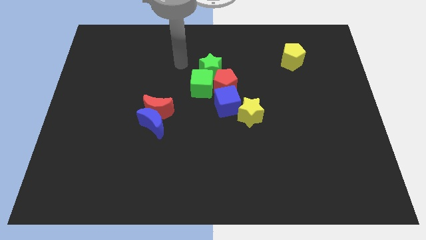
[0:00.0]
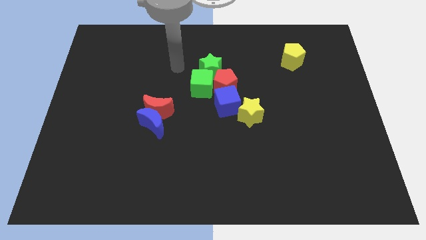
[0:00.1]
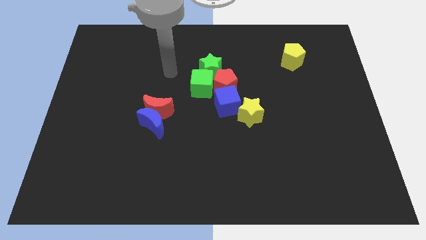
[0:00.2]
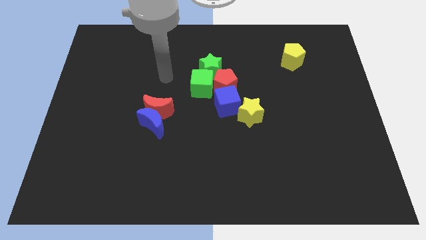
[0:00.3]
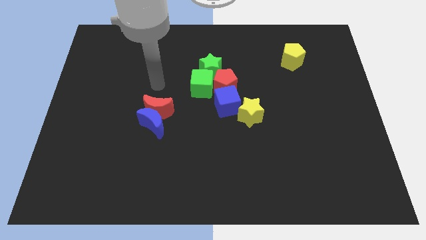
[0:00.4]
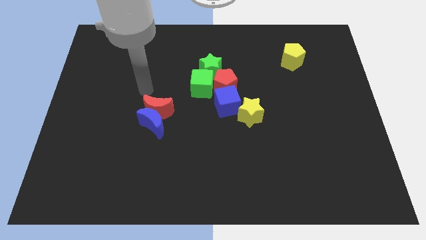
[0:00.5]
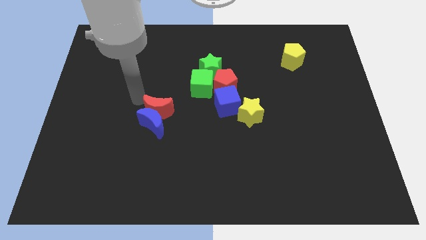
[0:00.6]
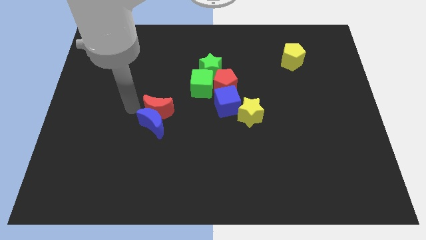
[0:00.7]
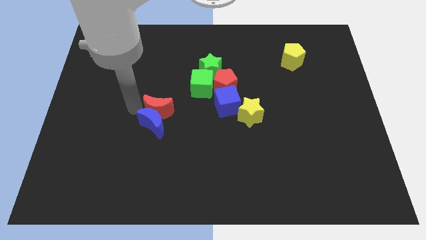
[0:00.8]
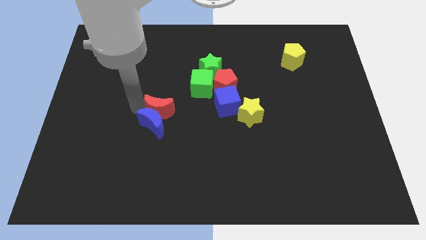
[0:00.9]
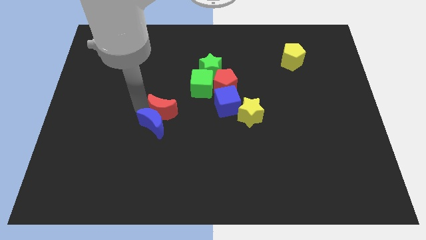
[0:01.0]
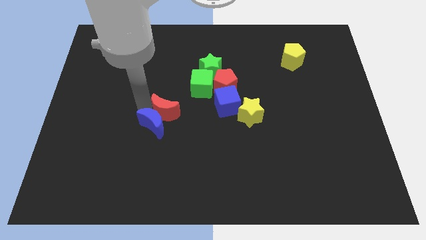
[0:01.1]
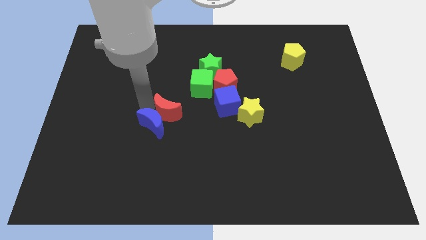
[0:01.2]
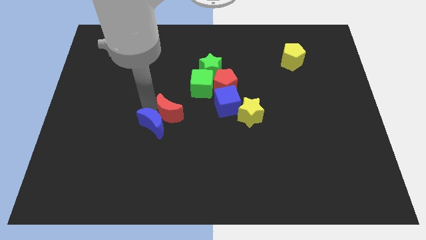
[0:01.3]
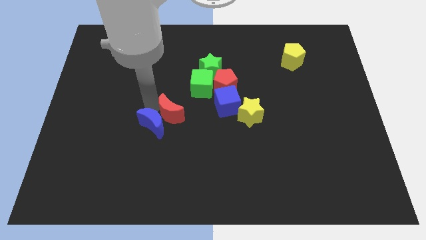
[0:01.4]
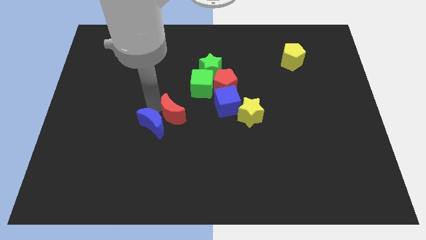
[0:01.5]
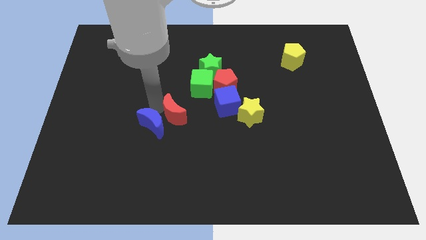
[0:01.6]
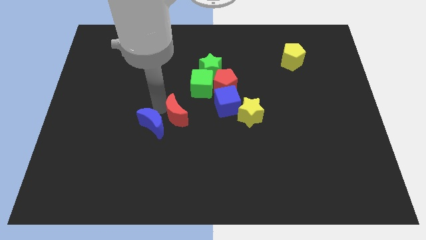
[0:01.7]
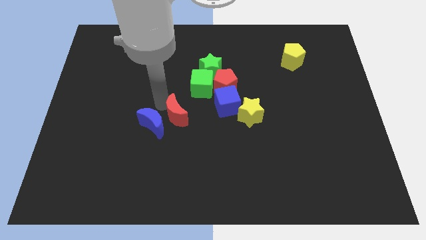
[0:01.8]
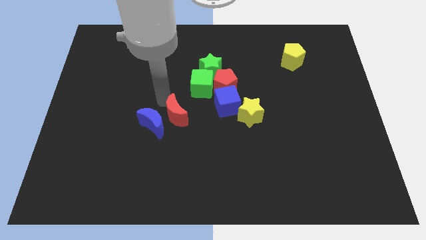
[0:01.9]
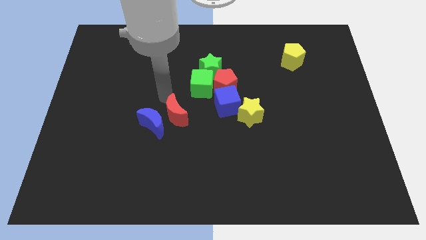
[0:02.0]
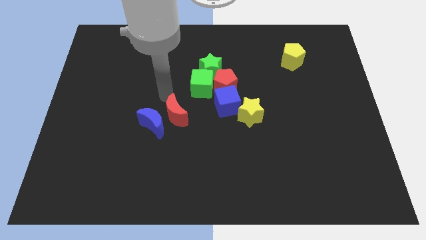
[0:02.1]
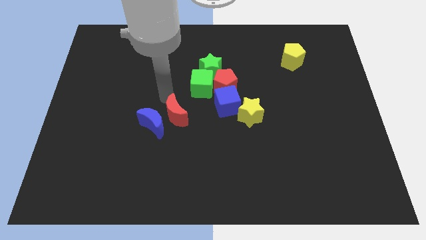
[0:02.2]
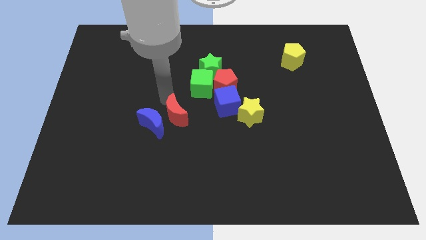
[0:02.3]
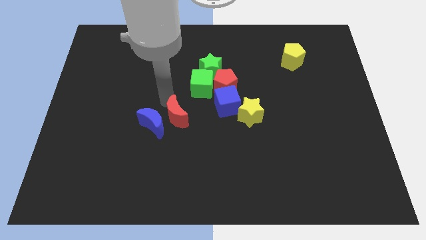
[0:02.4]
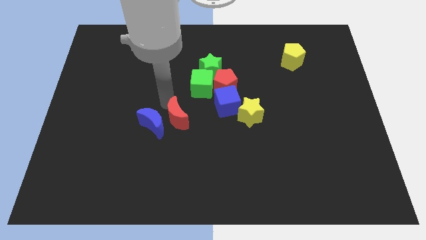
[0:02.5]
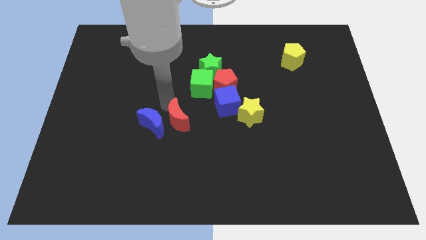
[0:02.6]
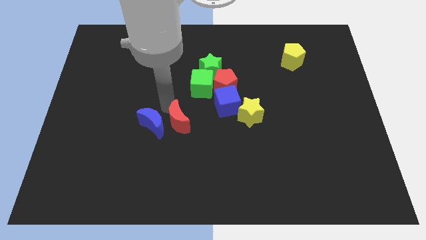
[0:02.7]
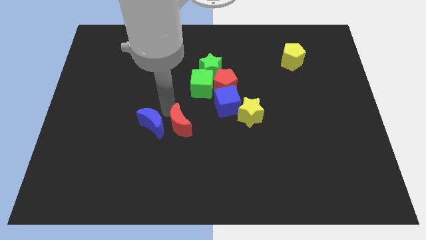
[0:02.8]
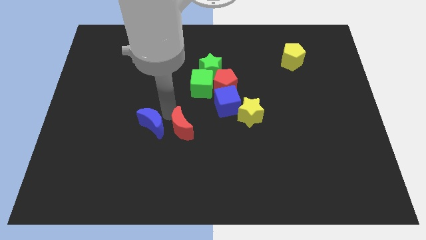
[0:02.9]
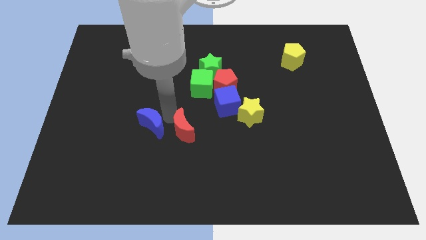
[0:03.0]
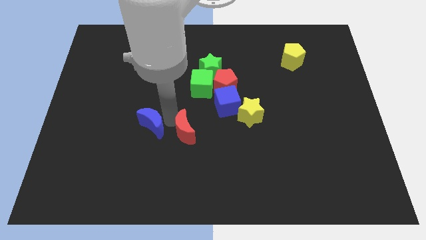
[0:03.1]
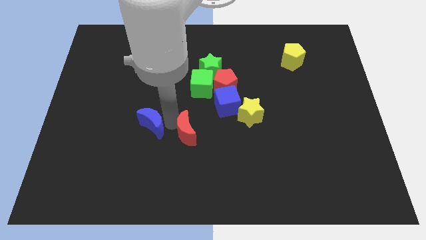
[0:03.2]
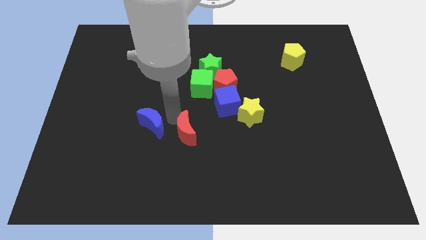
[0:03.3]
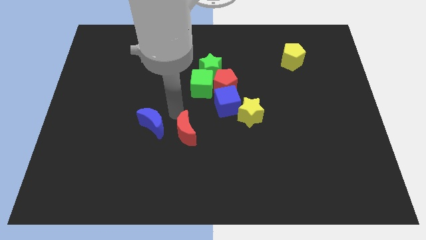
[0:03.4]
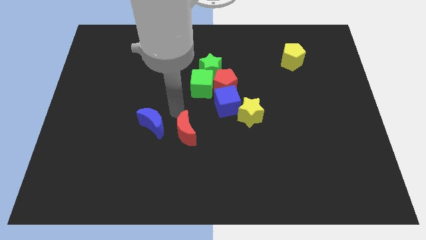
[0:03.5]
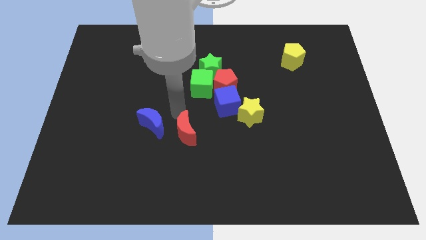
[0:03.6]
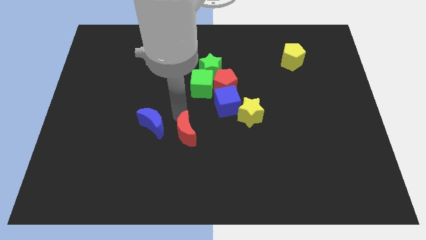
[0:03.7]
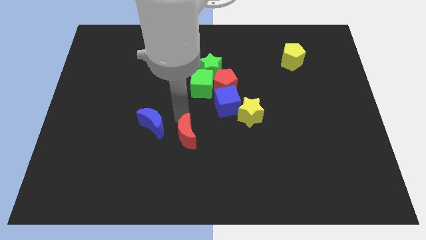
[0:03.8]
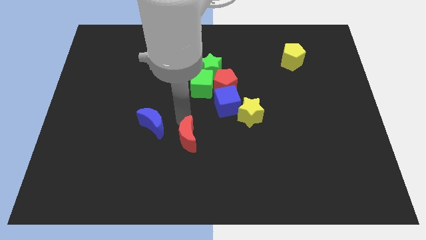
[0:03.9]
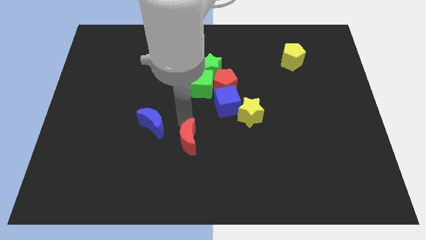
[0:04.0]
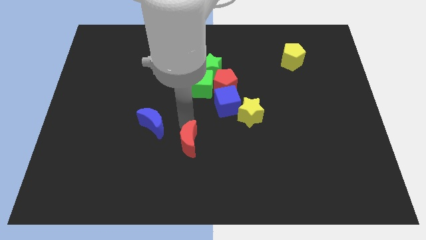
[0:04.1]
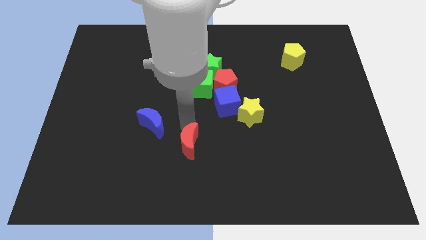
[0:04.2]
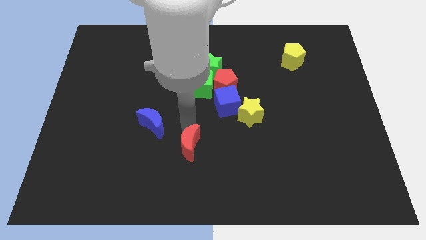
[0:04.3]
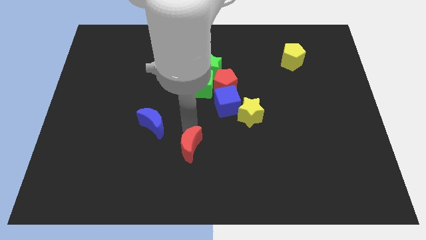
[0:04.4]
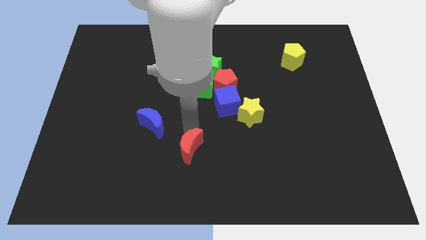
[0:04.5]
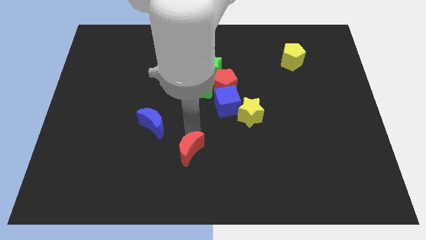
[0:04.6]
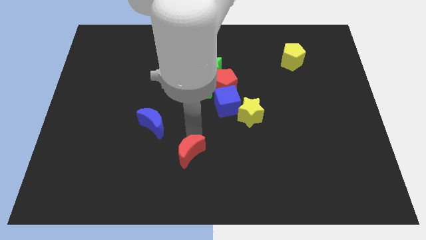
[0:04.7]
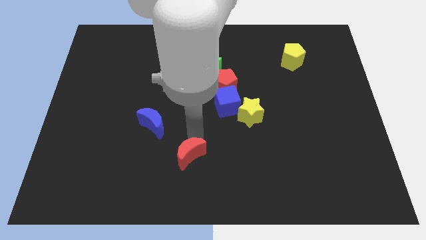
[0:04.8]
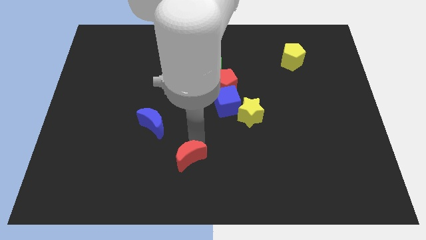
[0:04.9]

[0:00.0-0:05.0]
push the red moon to the bottom

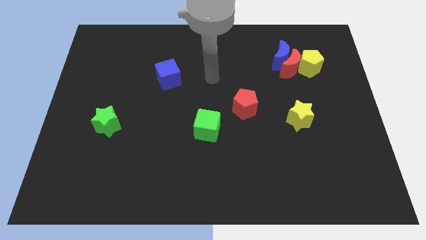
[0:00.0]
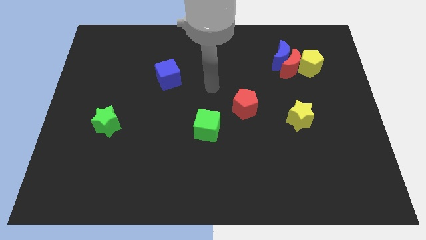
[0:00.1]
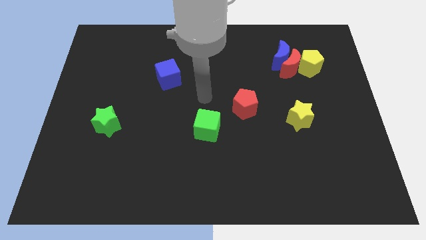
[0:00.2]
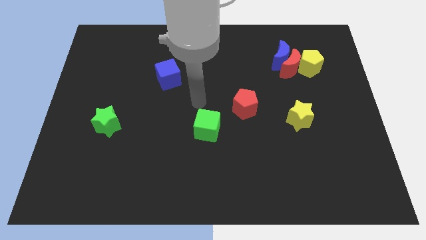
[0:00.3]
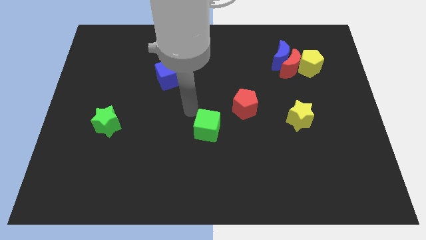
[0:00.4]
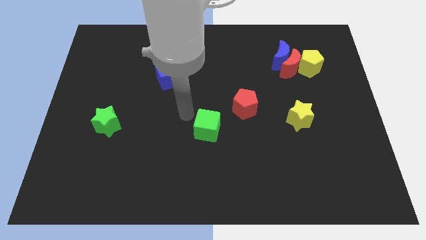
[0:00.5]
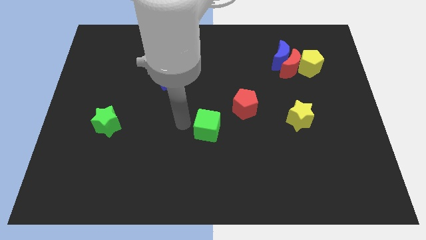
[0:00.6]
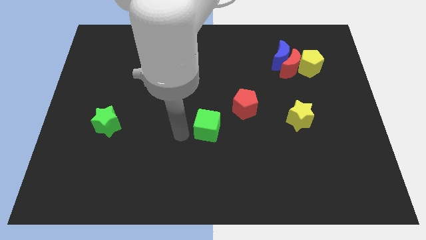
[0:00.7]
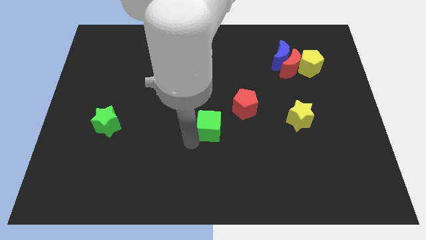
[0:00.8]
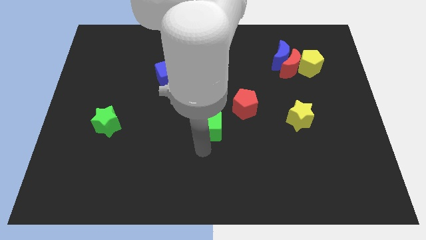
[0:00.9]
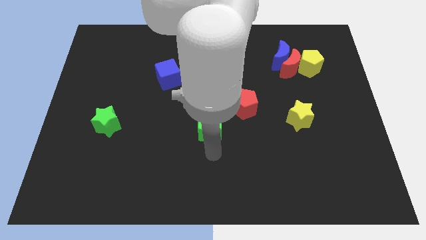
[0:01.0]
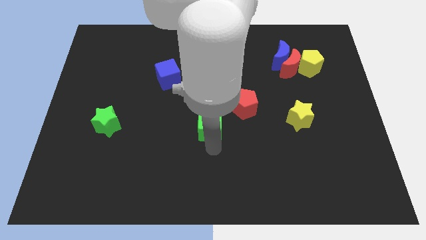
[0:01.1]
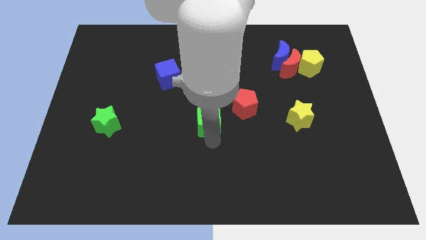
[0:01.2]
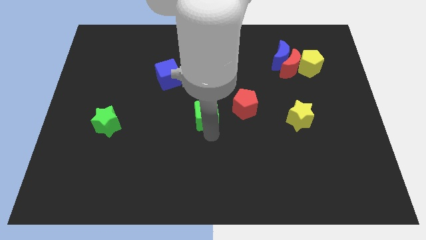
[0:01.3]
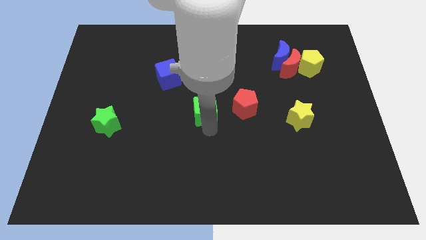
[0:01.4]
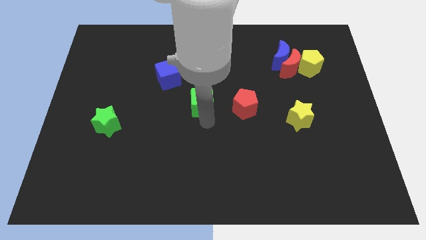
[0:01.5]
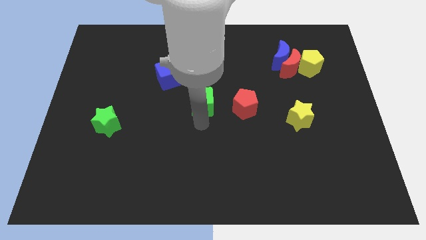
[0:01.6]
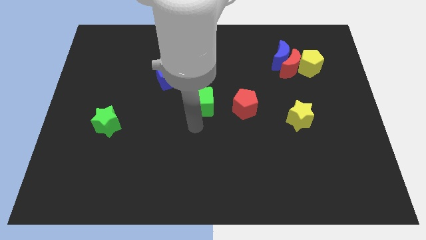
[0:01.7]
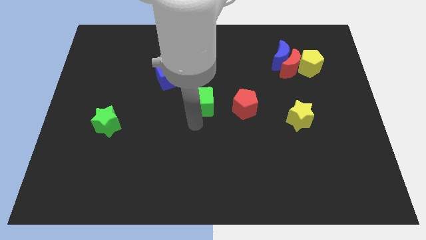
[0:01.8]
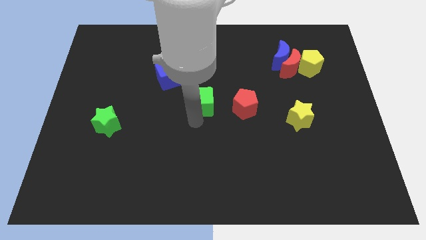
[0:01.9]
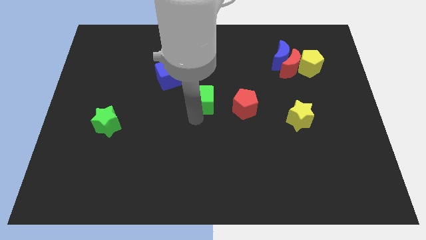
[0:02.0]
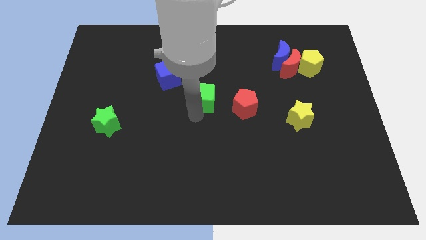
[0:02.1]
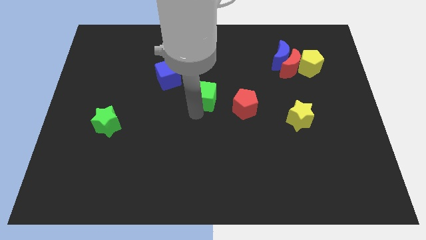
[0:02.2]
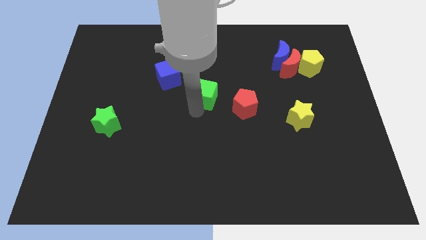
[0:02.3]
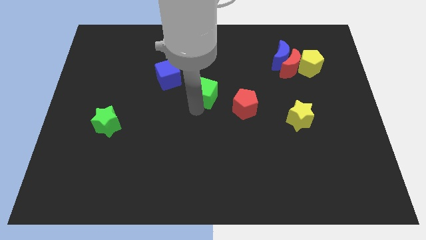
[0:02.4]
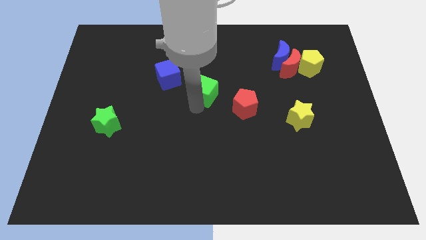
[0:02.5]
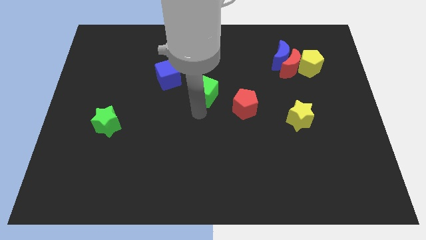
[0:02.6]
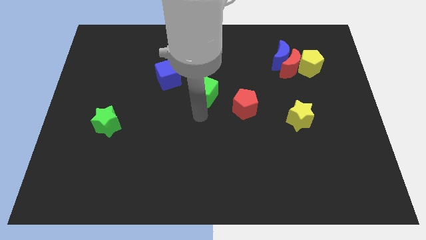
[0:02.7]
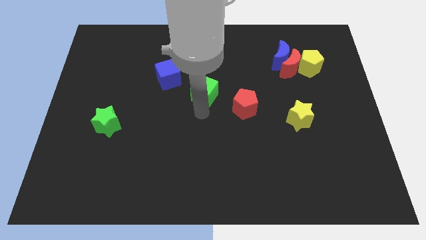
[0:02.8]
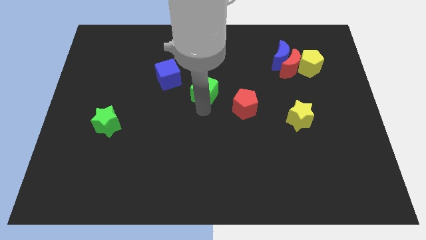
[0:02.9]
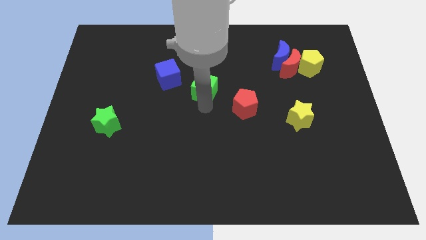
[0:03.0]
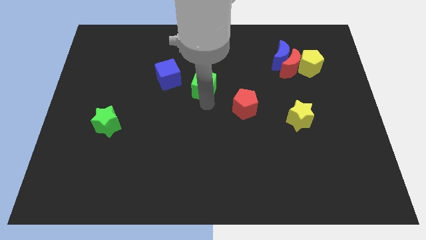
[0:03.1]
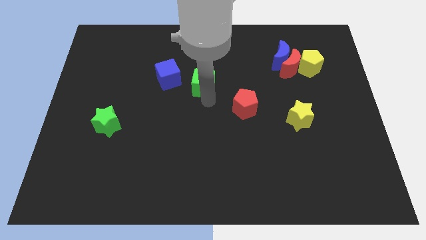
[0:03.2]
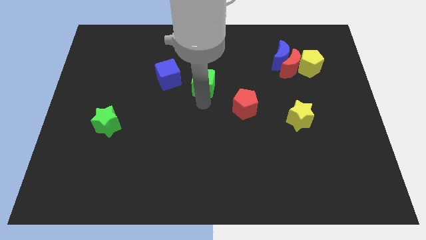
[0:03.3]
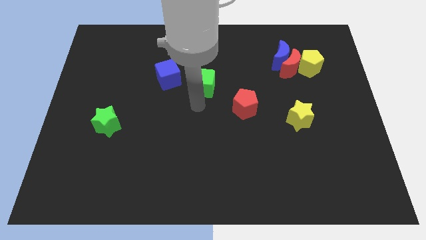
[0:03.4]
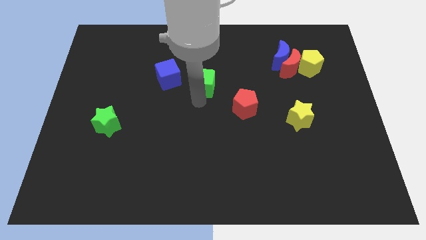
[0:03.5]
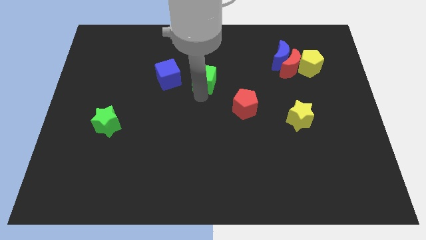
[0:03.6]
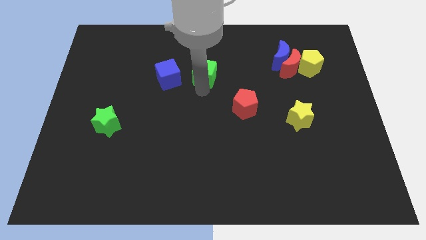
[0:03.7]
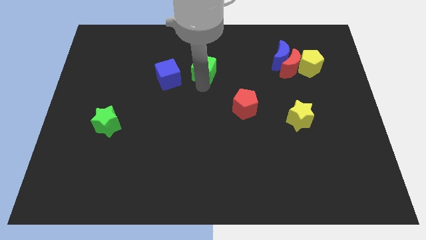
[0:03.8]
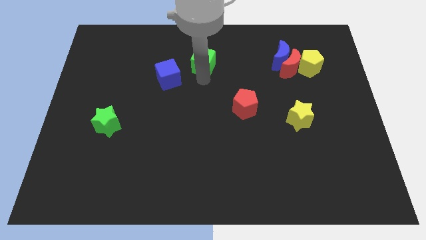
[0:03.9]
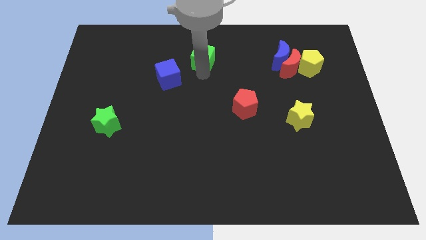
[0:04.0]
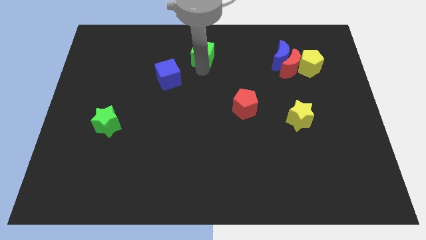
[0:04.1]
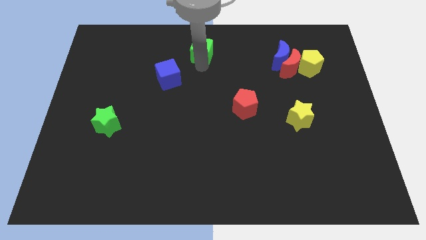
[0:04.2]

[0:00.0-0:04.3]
push the green cube to the top
